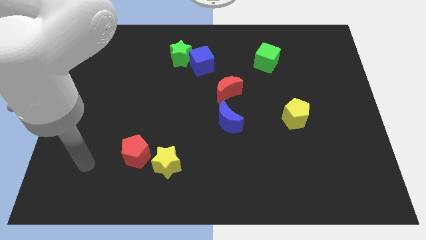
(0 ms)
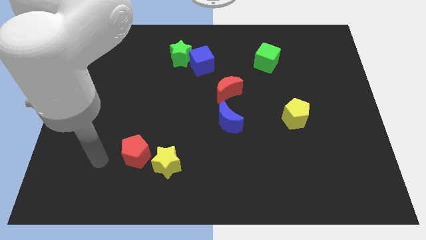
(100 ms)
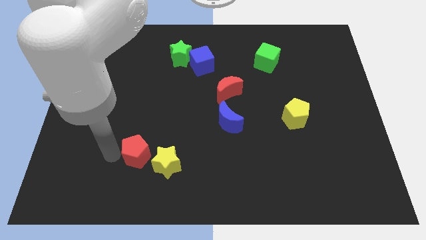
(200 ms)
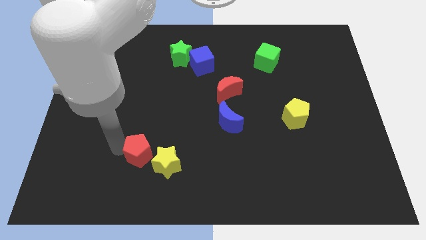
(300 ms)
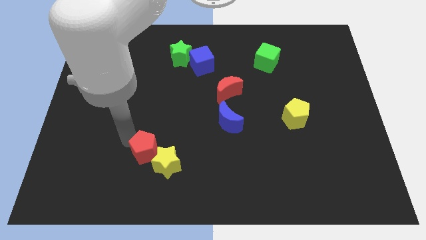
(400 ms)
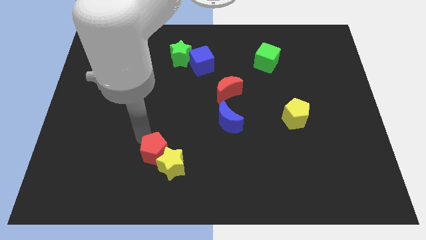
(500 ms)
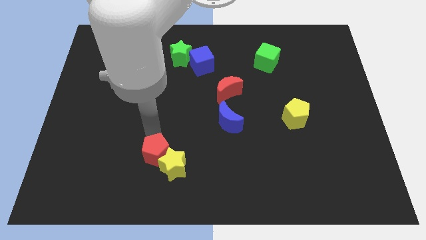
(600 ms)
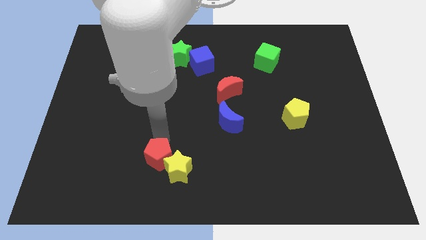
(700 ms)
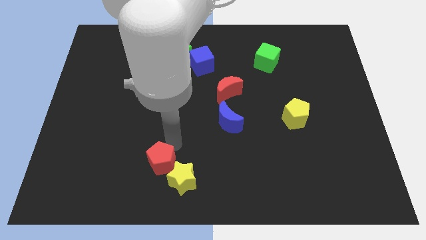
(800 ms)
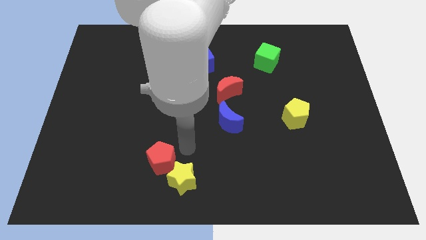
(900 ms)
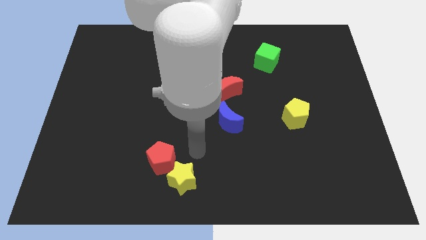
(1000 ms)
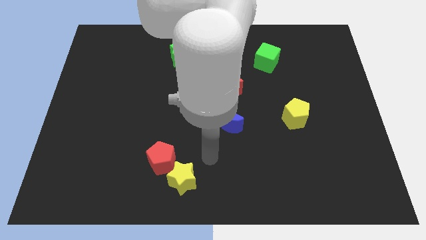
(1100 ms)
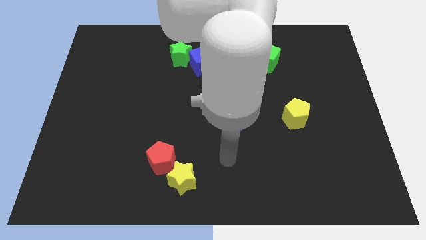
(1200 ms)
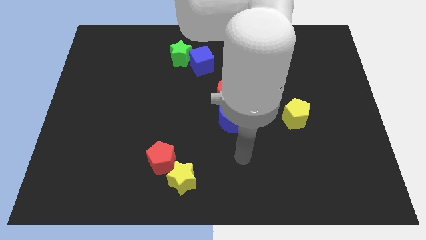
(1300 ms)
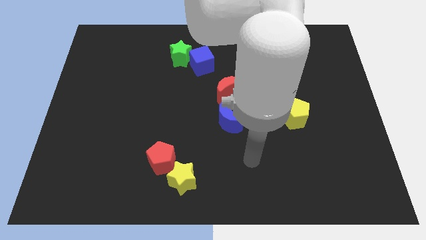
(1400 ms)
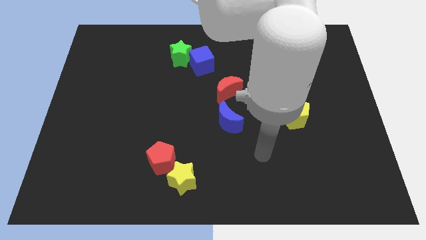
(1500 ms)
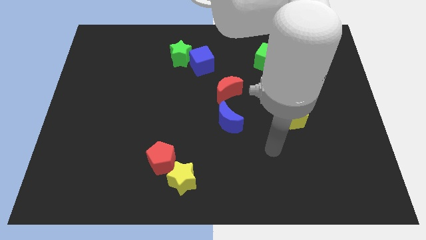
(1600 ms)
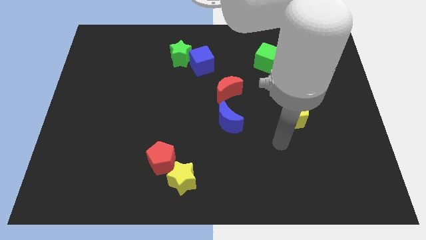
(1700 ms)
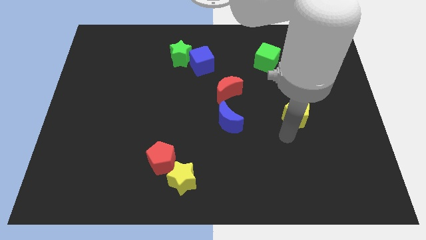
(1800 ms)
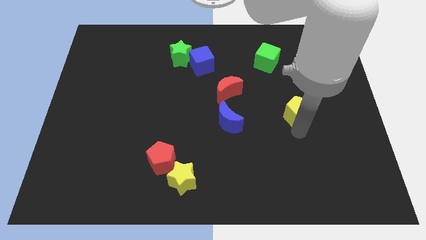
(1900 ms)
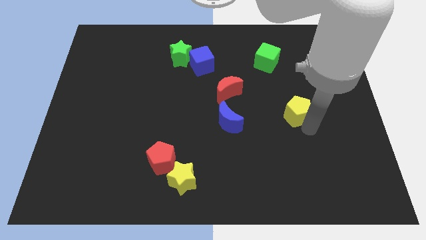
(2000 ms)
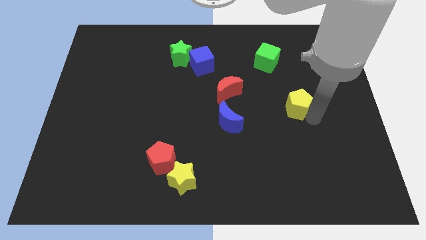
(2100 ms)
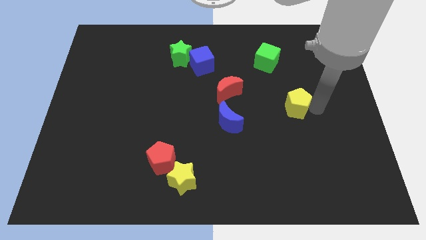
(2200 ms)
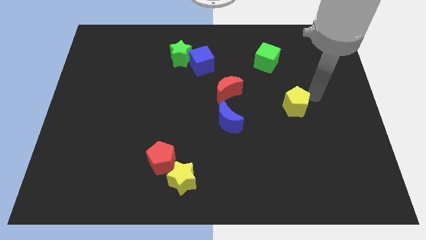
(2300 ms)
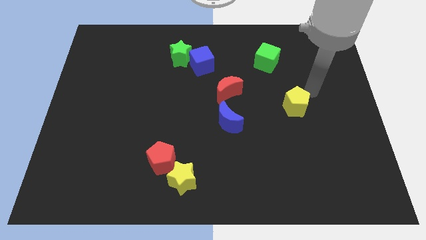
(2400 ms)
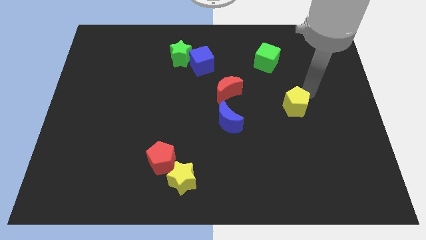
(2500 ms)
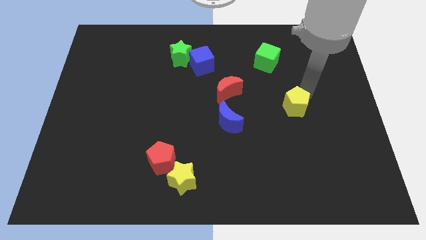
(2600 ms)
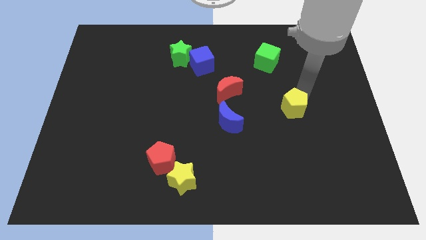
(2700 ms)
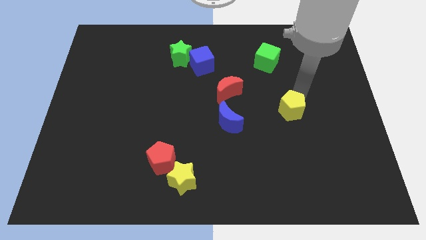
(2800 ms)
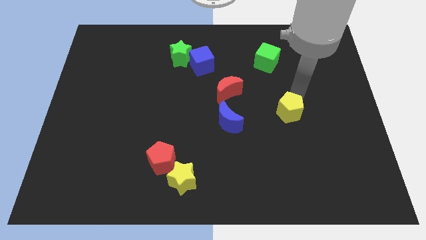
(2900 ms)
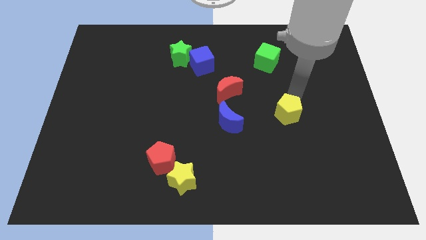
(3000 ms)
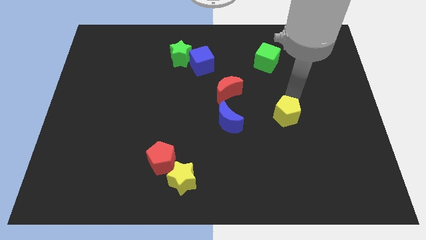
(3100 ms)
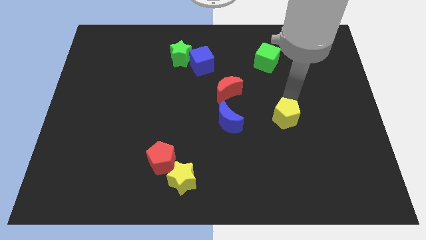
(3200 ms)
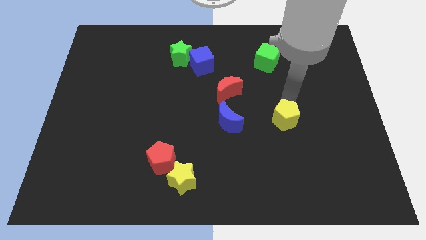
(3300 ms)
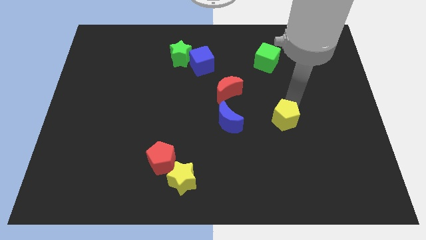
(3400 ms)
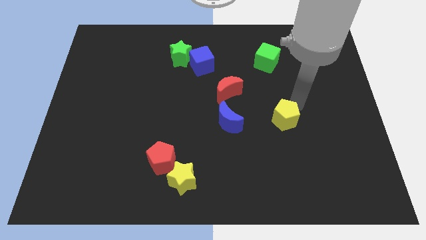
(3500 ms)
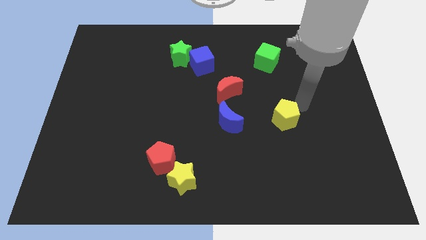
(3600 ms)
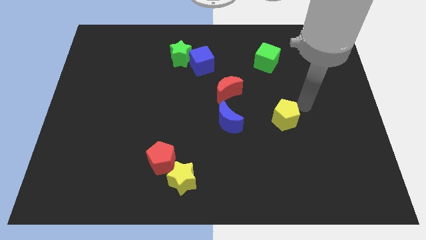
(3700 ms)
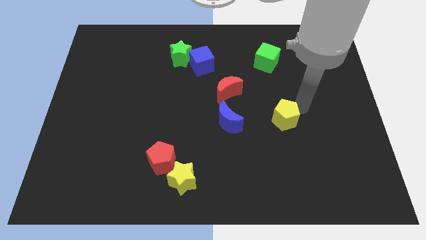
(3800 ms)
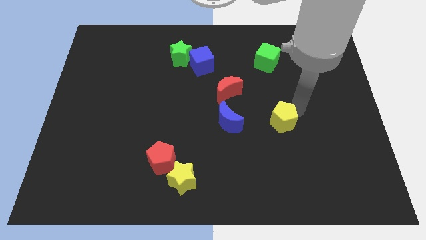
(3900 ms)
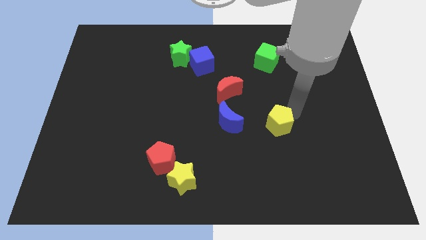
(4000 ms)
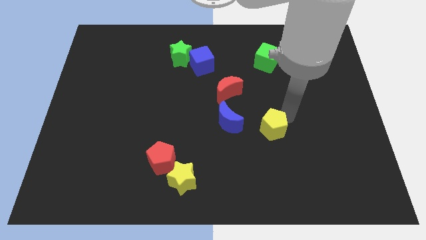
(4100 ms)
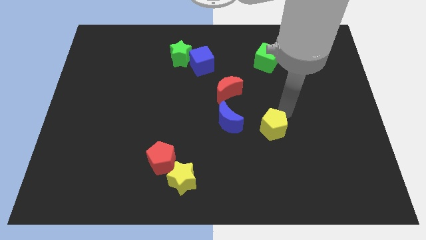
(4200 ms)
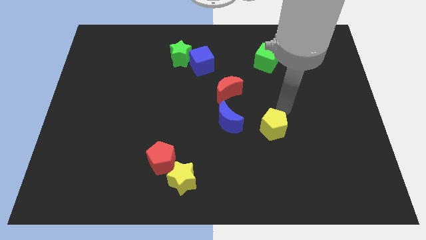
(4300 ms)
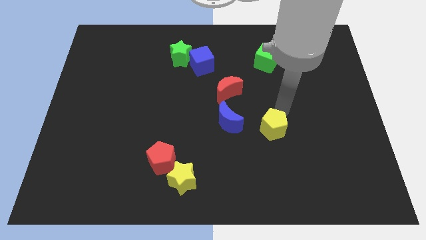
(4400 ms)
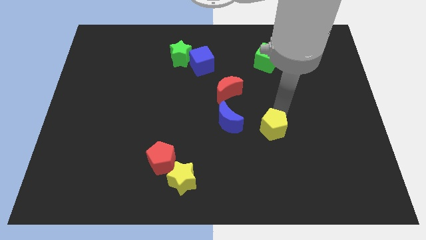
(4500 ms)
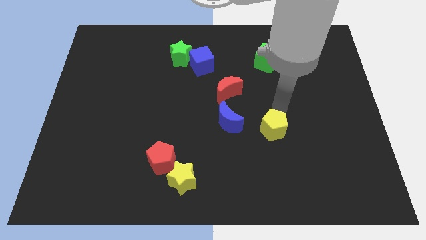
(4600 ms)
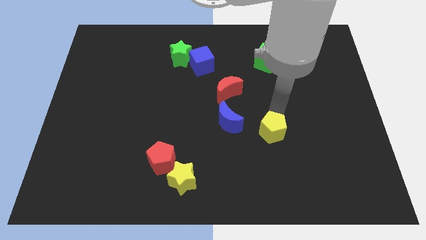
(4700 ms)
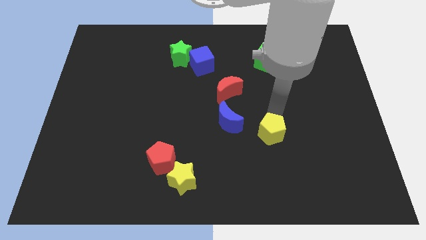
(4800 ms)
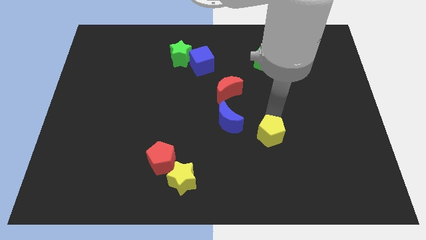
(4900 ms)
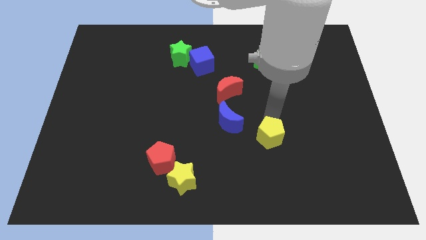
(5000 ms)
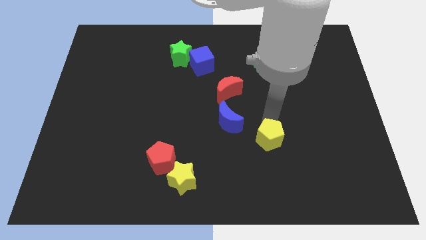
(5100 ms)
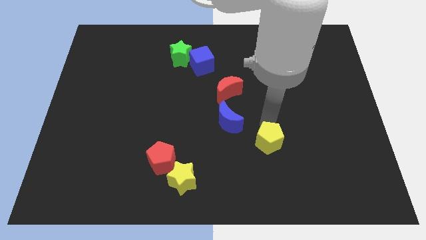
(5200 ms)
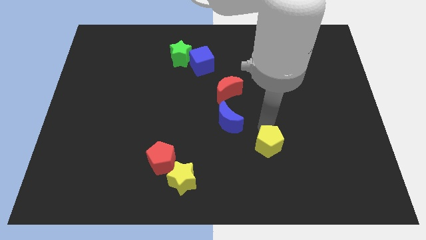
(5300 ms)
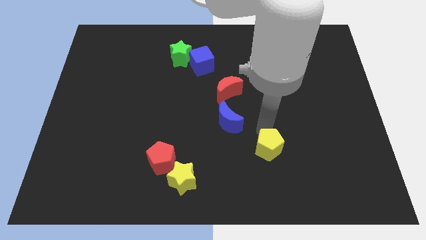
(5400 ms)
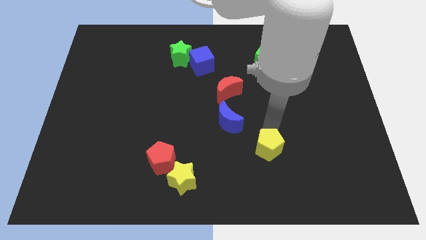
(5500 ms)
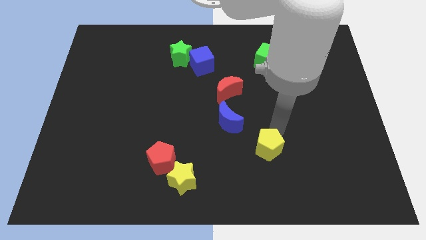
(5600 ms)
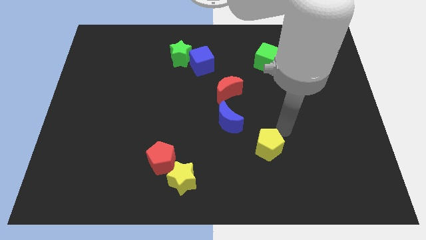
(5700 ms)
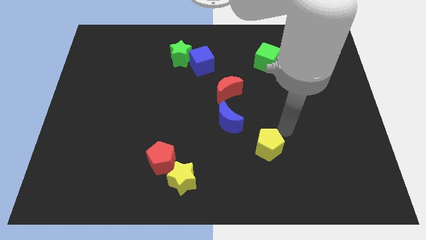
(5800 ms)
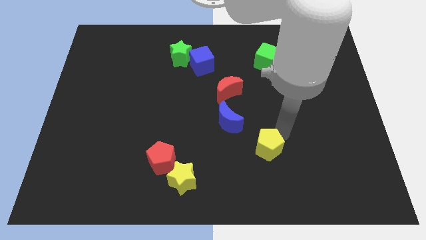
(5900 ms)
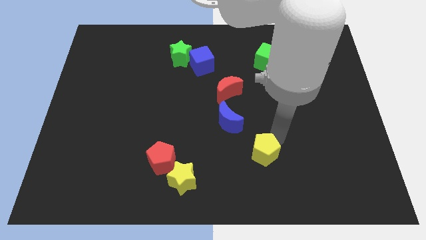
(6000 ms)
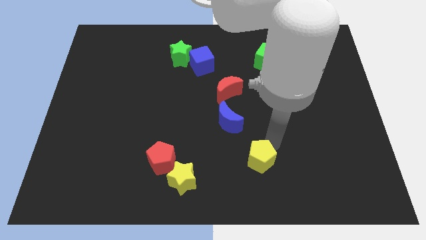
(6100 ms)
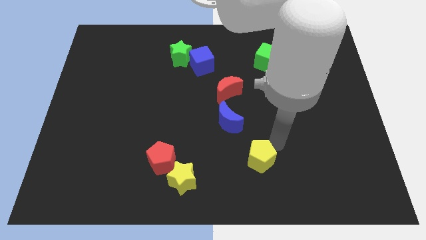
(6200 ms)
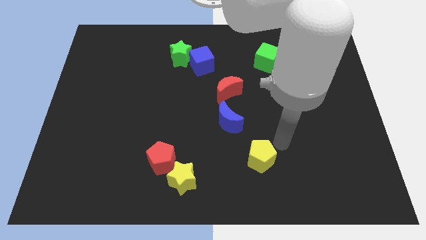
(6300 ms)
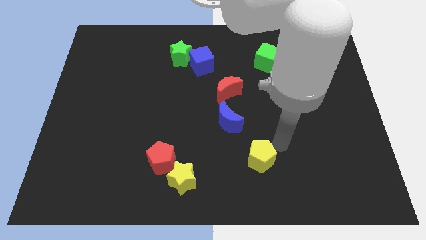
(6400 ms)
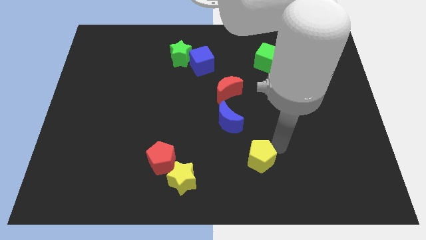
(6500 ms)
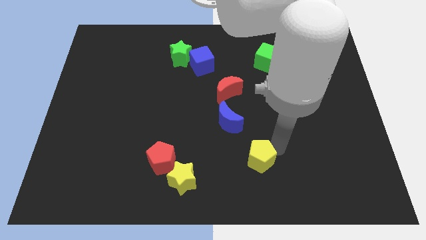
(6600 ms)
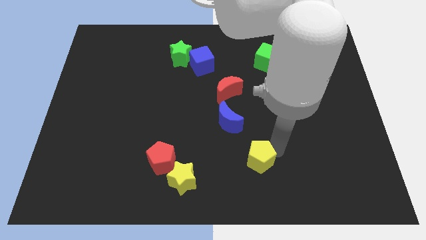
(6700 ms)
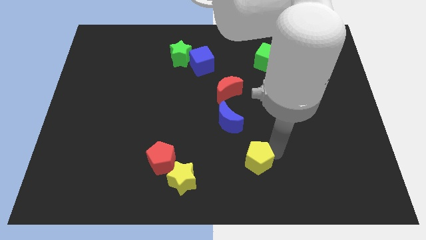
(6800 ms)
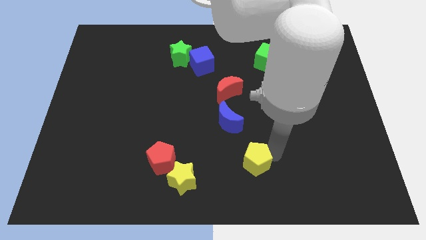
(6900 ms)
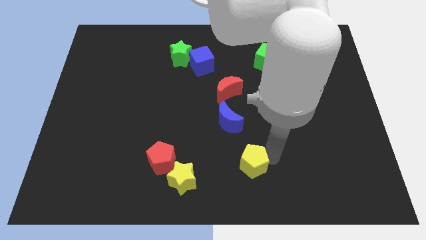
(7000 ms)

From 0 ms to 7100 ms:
move the yellow pentagon to the bottom
